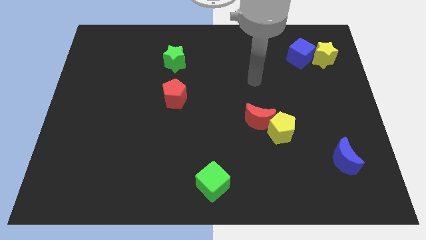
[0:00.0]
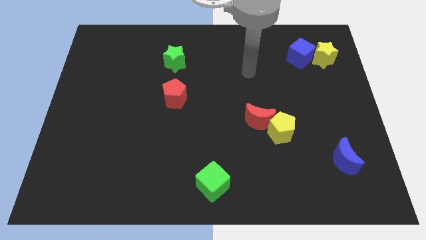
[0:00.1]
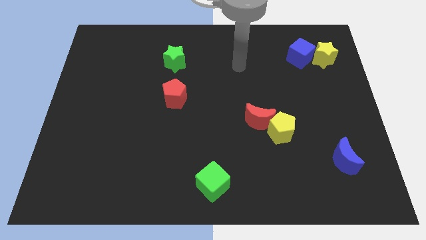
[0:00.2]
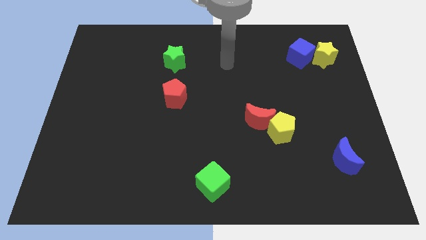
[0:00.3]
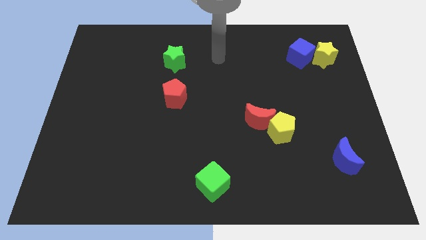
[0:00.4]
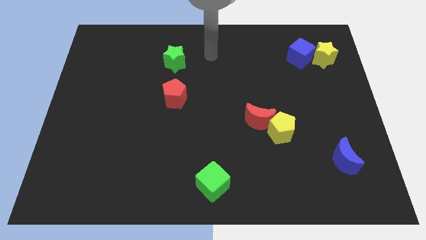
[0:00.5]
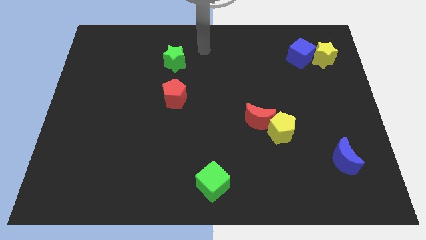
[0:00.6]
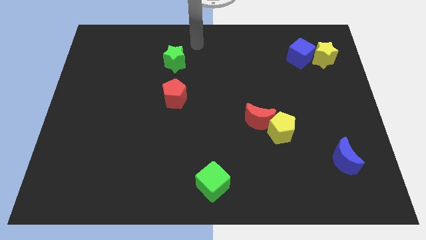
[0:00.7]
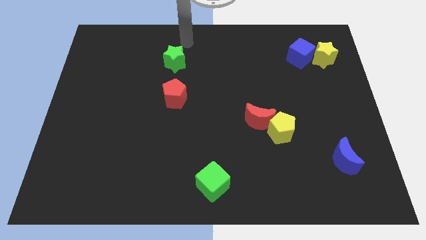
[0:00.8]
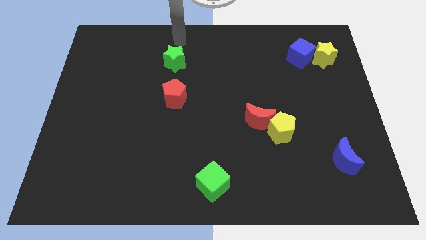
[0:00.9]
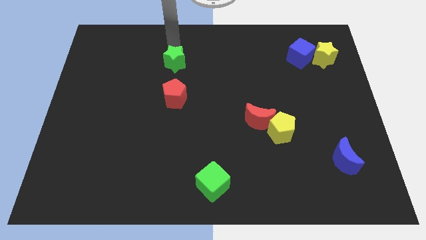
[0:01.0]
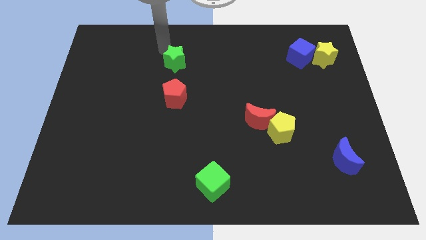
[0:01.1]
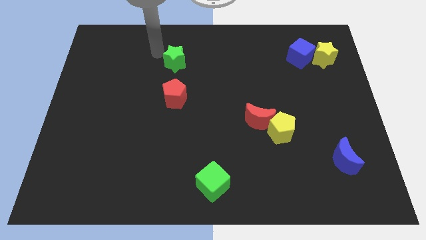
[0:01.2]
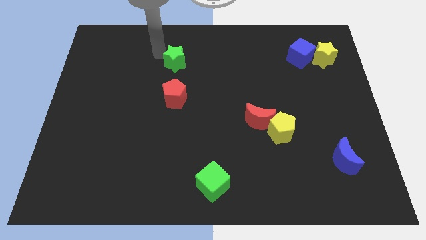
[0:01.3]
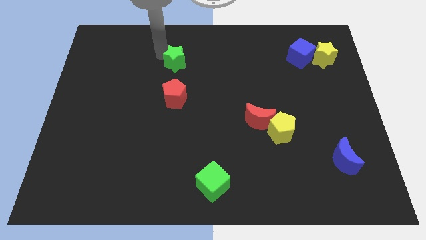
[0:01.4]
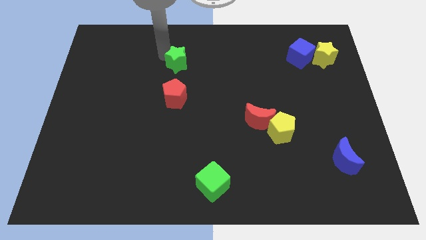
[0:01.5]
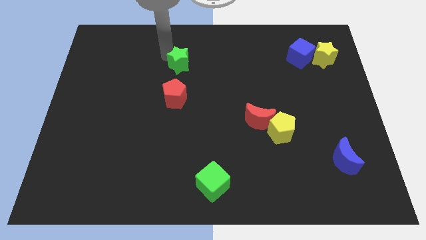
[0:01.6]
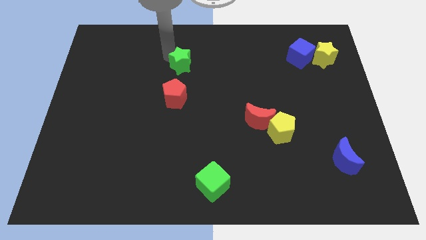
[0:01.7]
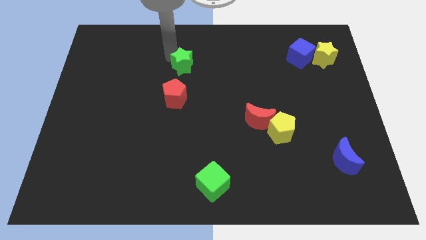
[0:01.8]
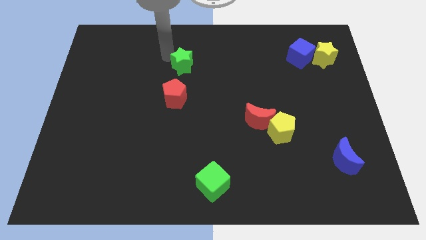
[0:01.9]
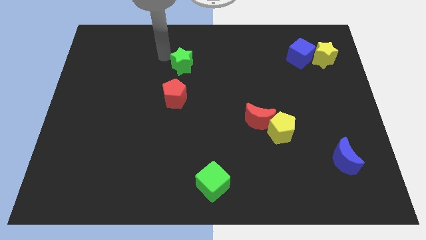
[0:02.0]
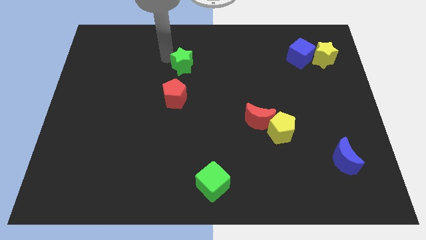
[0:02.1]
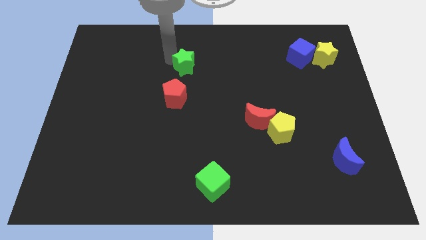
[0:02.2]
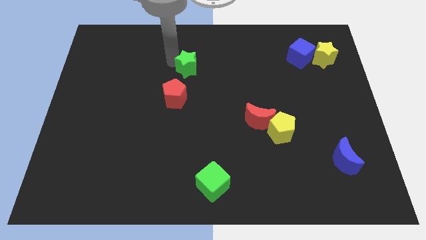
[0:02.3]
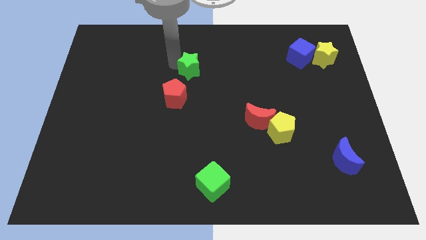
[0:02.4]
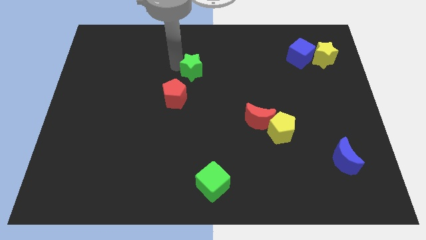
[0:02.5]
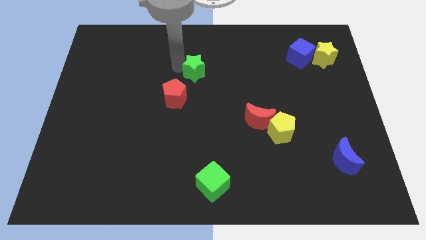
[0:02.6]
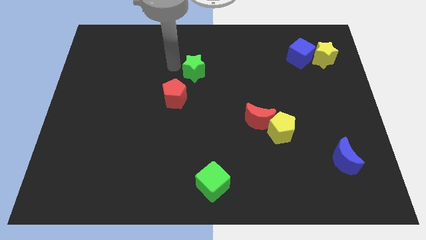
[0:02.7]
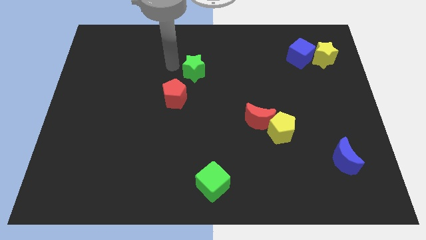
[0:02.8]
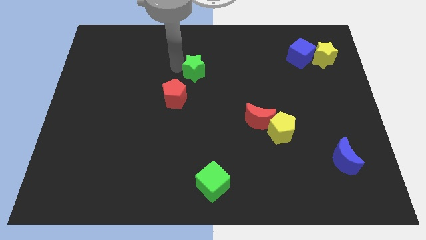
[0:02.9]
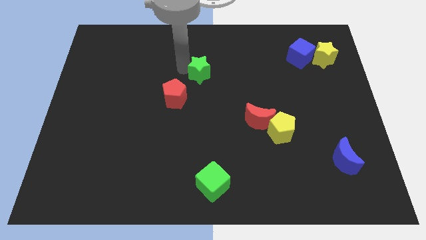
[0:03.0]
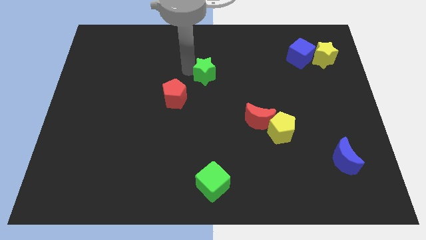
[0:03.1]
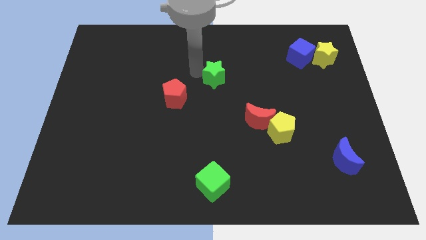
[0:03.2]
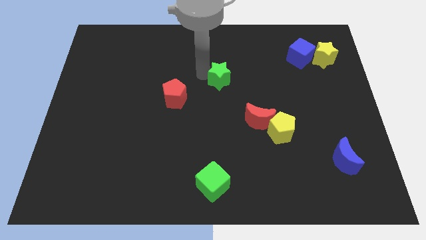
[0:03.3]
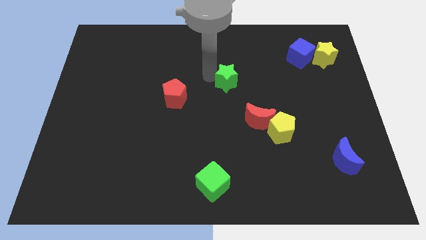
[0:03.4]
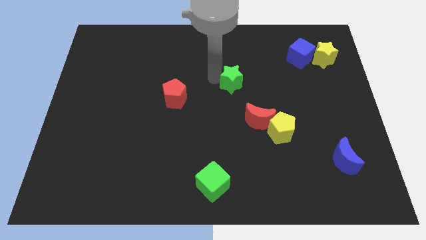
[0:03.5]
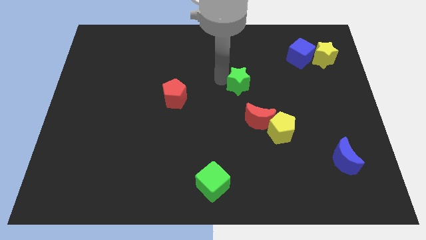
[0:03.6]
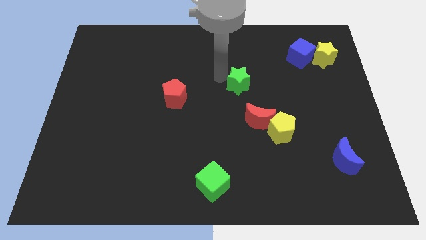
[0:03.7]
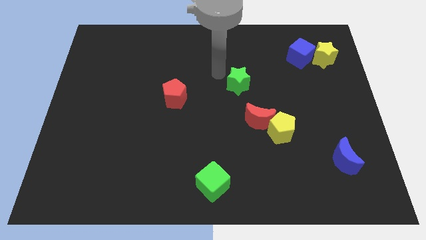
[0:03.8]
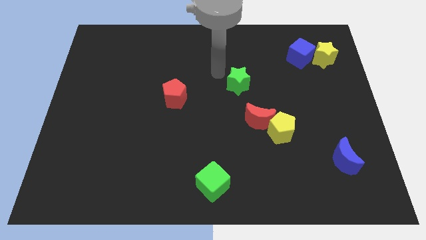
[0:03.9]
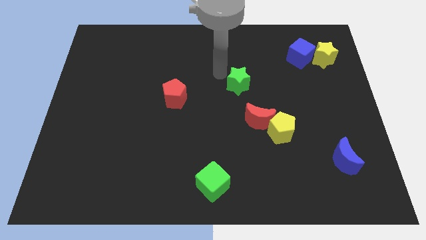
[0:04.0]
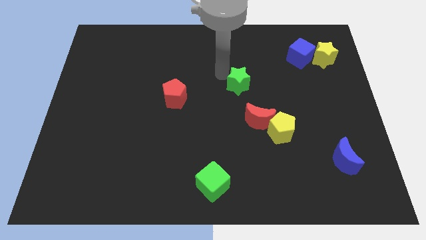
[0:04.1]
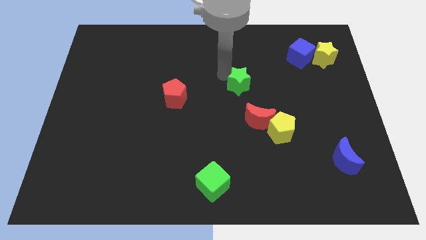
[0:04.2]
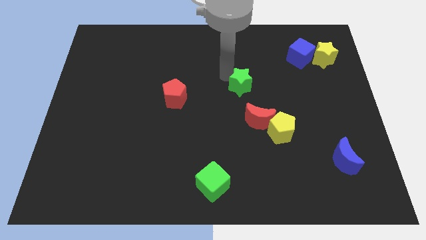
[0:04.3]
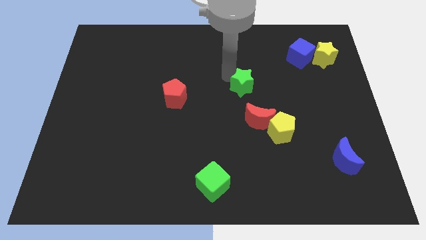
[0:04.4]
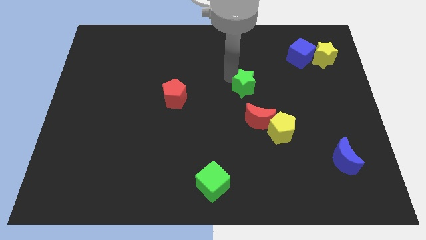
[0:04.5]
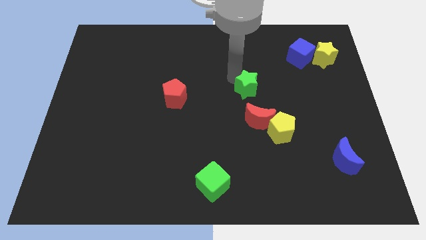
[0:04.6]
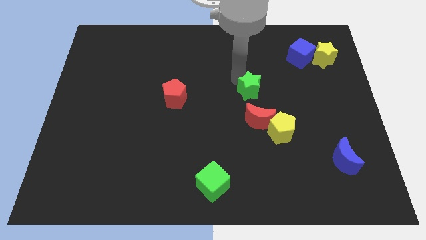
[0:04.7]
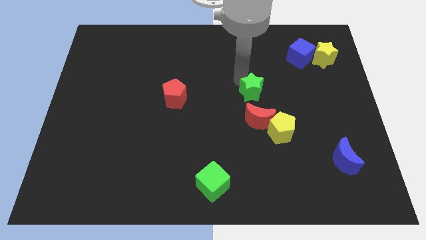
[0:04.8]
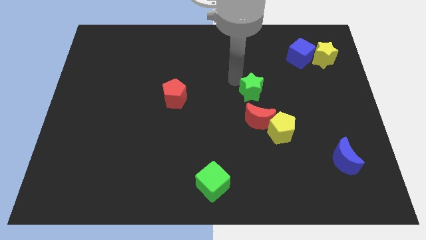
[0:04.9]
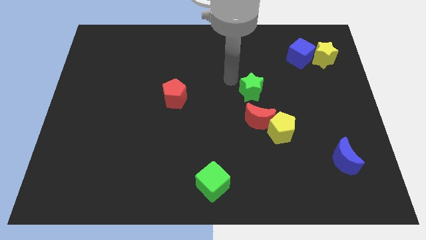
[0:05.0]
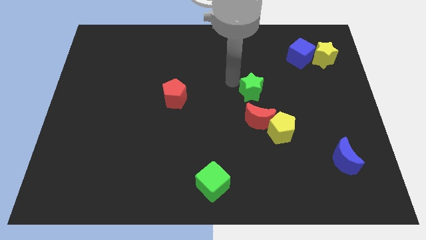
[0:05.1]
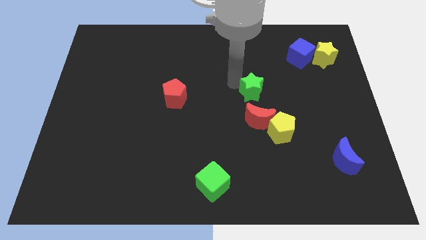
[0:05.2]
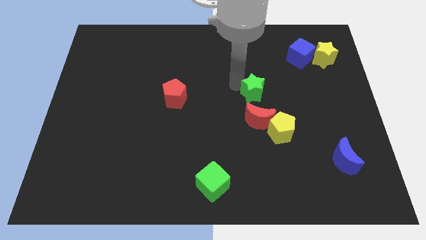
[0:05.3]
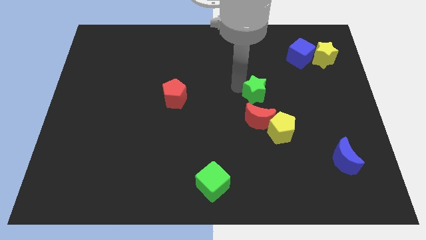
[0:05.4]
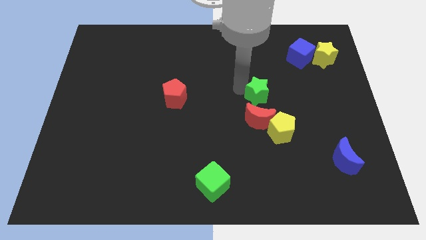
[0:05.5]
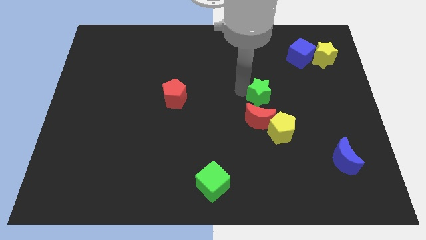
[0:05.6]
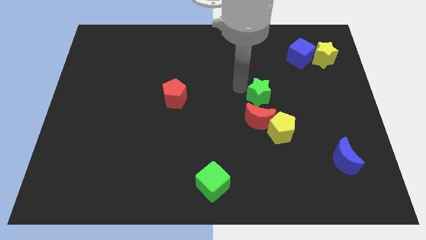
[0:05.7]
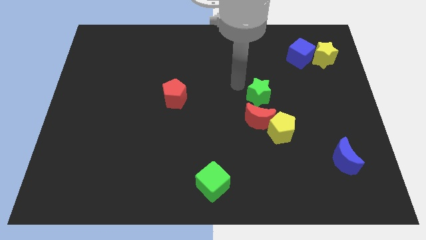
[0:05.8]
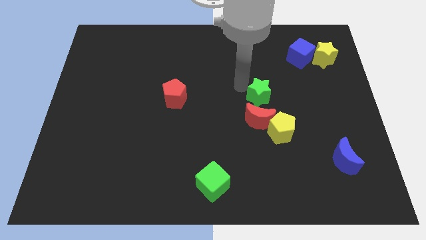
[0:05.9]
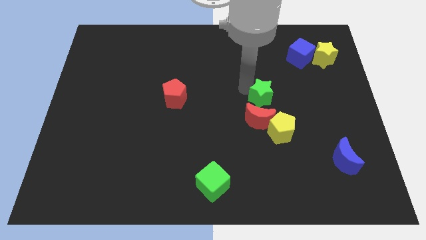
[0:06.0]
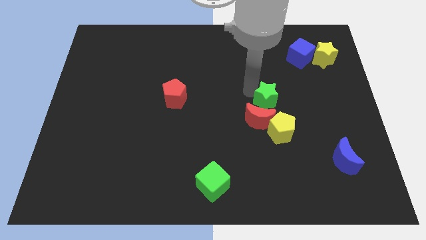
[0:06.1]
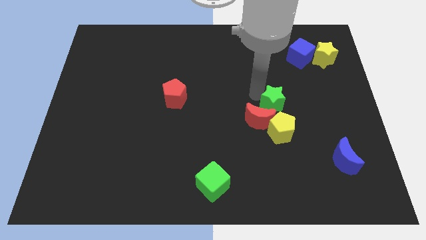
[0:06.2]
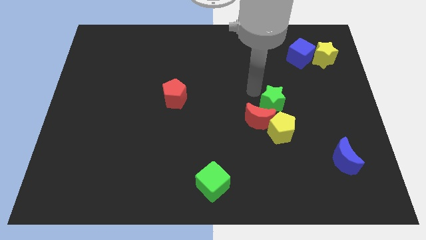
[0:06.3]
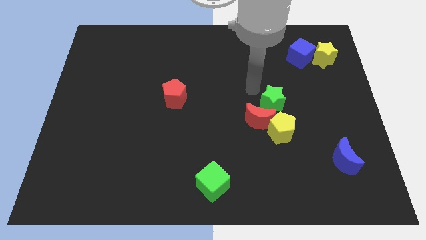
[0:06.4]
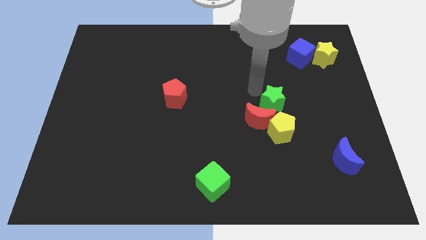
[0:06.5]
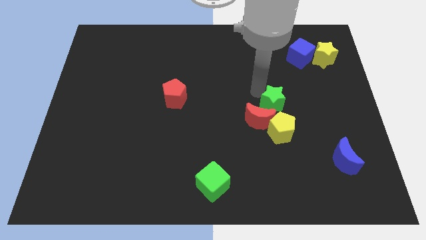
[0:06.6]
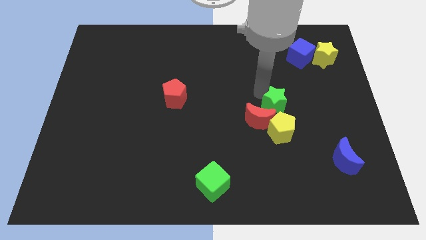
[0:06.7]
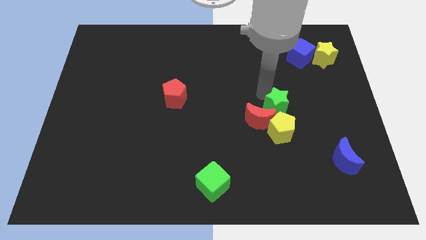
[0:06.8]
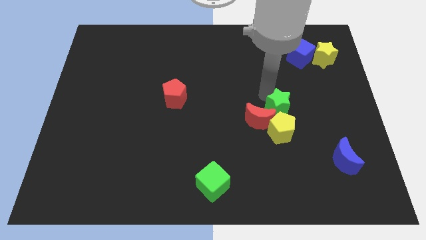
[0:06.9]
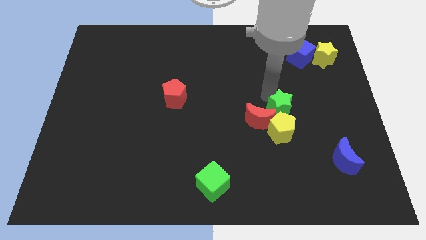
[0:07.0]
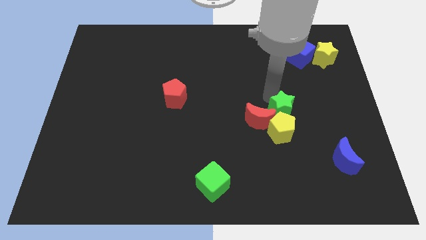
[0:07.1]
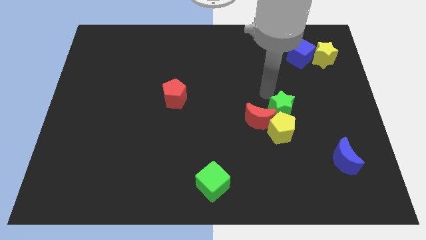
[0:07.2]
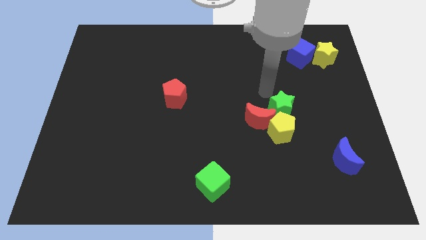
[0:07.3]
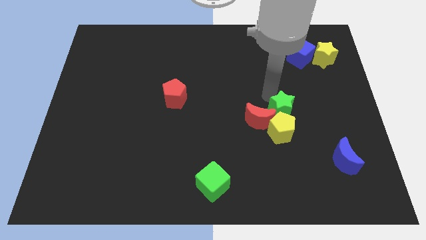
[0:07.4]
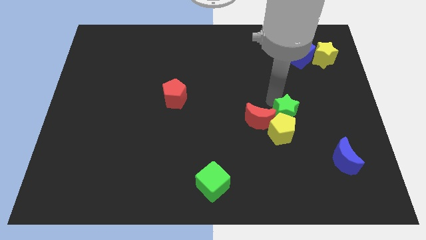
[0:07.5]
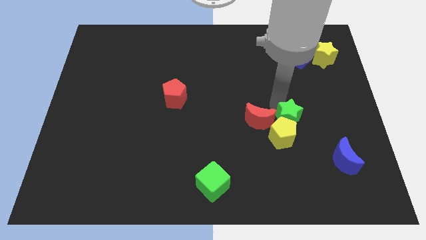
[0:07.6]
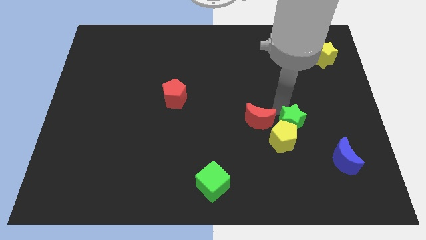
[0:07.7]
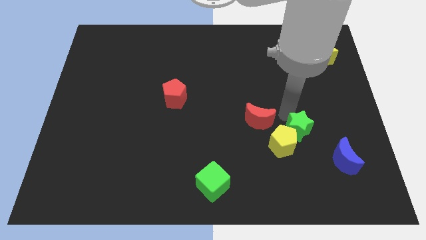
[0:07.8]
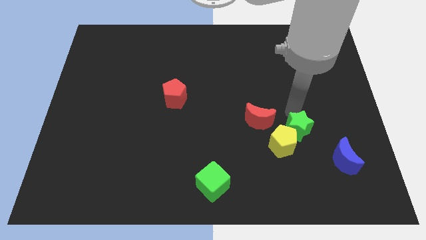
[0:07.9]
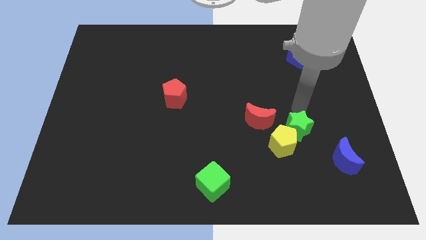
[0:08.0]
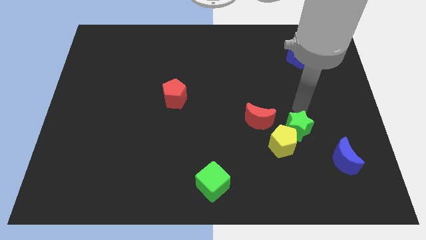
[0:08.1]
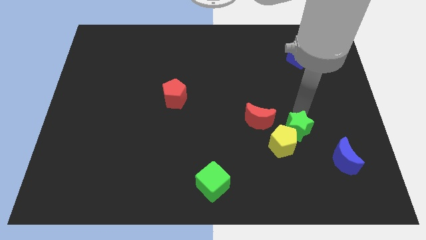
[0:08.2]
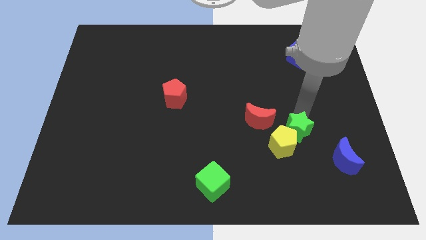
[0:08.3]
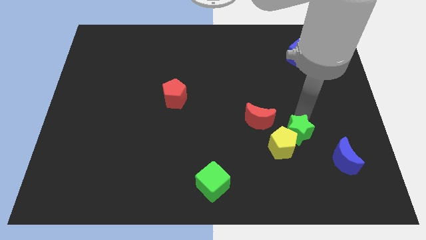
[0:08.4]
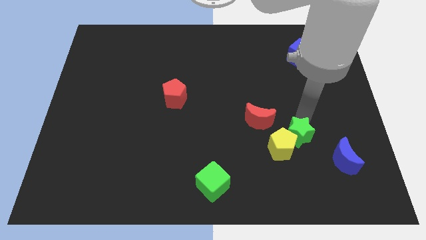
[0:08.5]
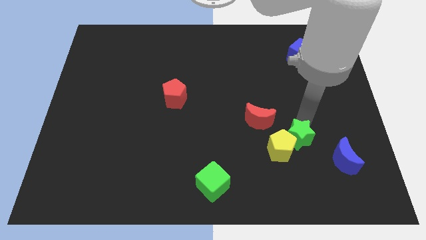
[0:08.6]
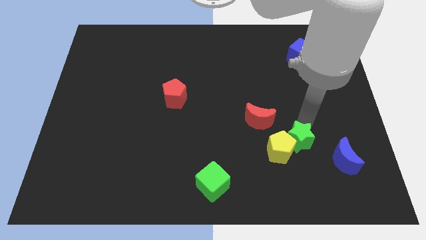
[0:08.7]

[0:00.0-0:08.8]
push the green star left of the blue moon
